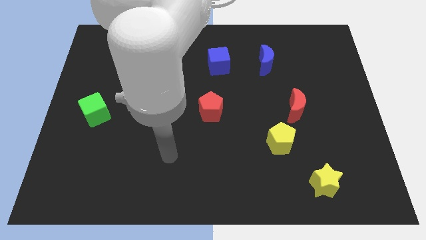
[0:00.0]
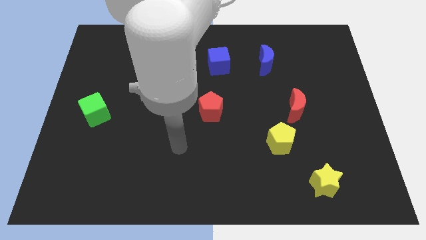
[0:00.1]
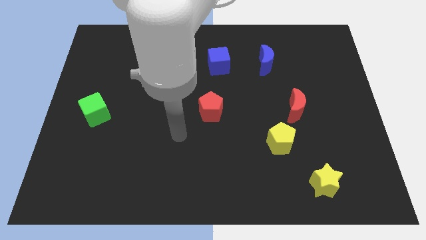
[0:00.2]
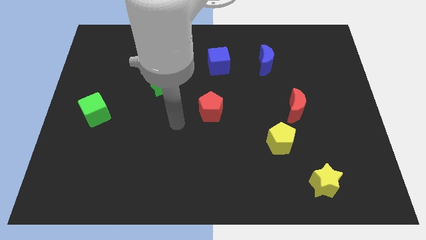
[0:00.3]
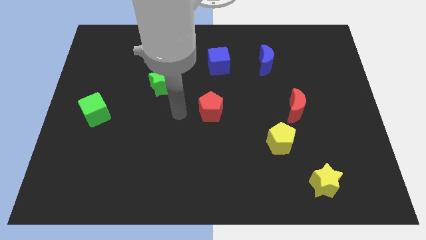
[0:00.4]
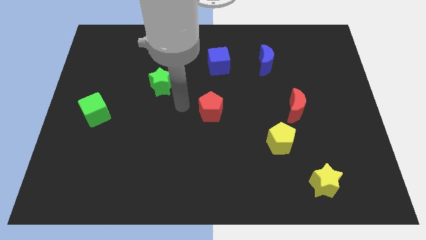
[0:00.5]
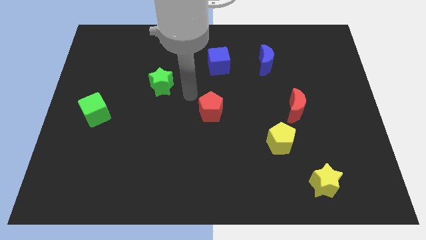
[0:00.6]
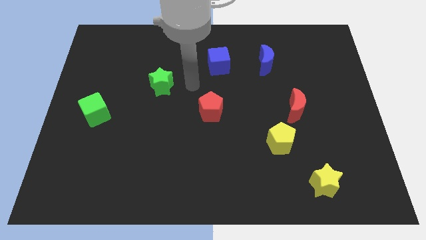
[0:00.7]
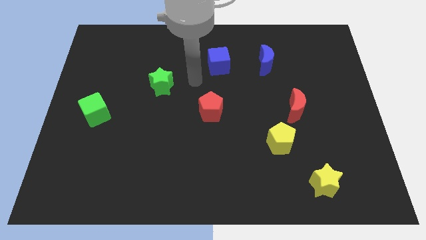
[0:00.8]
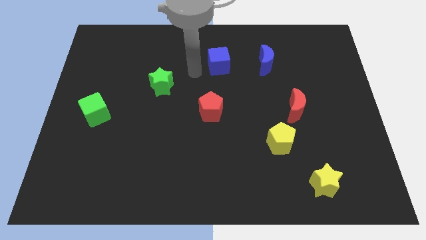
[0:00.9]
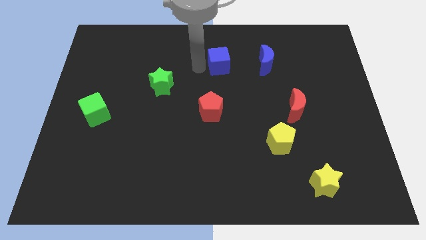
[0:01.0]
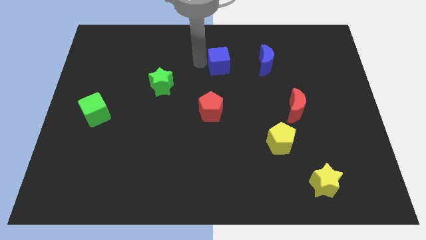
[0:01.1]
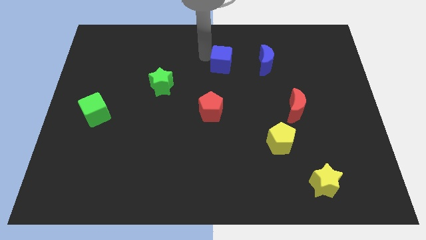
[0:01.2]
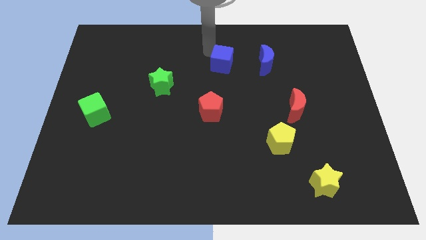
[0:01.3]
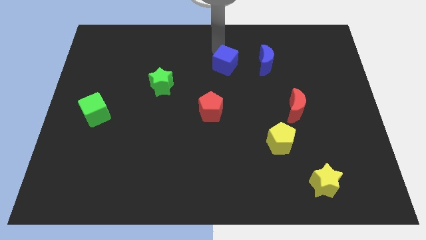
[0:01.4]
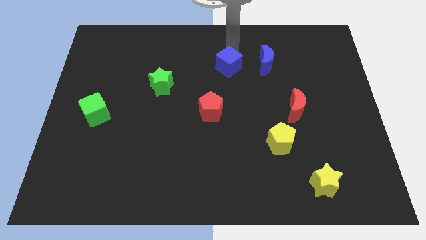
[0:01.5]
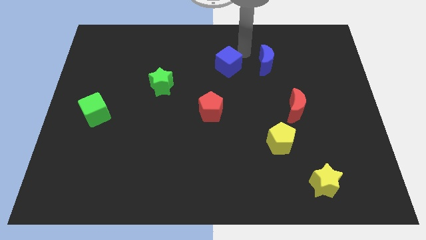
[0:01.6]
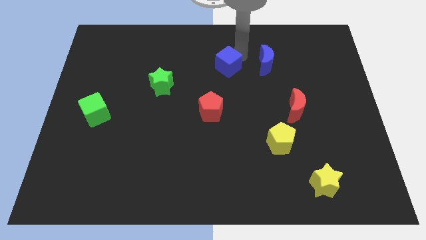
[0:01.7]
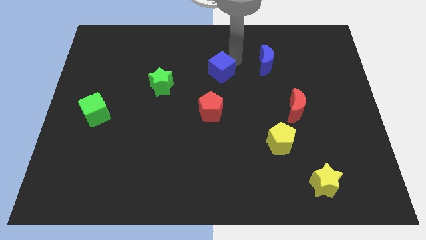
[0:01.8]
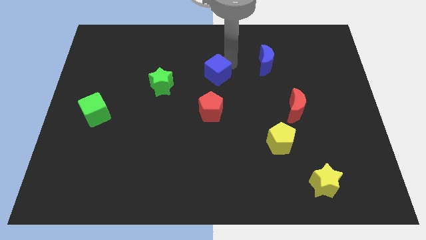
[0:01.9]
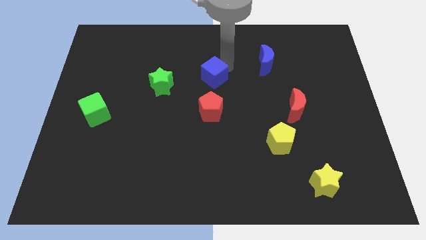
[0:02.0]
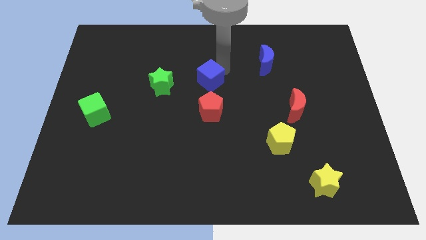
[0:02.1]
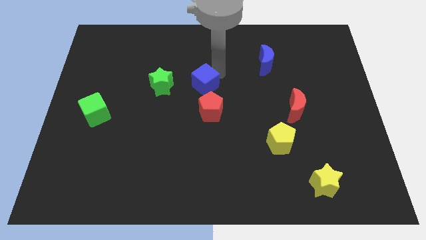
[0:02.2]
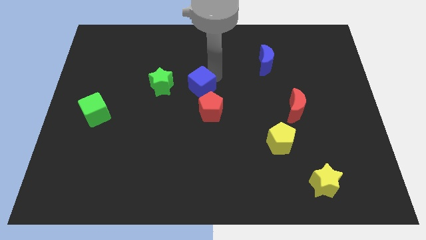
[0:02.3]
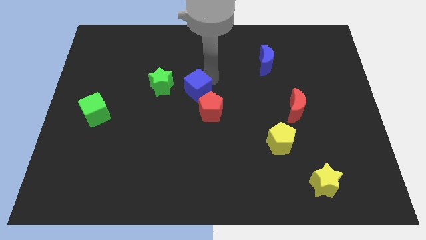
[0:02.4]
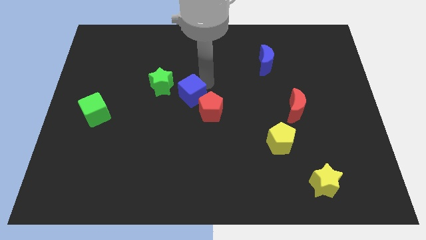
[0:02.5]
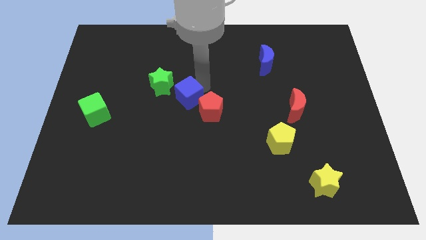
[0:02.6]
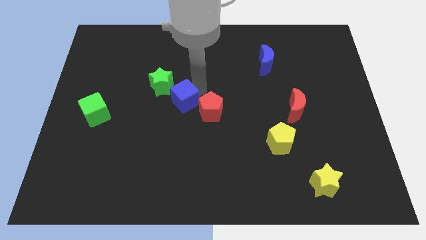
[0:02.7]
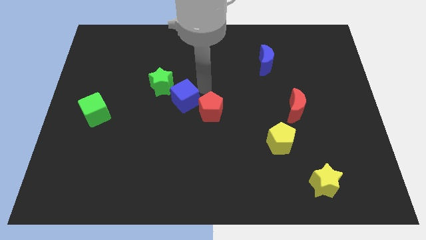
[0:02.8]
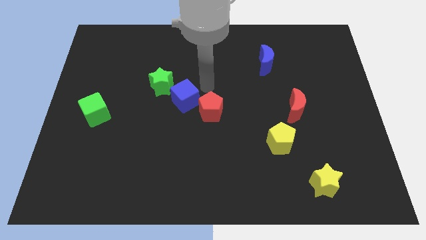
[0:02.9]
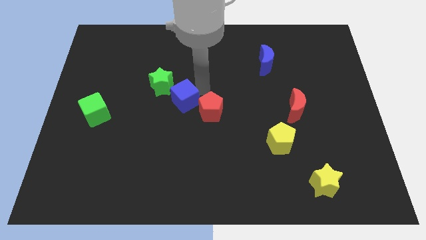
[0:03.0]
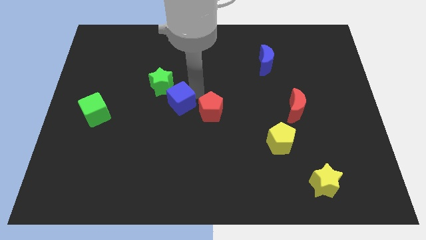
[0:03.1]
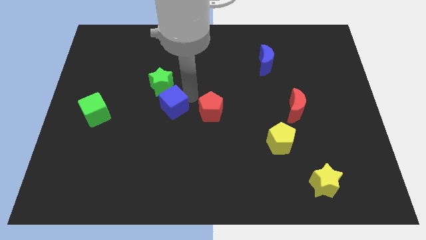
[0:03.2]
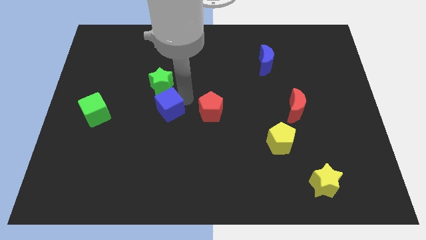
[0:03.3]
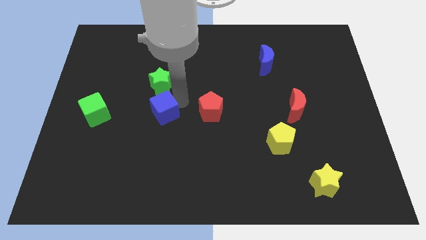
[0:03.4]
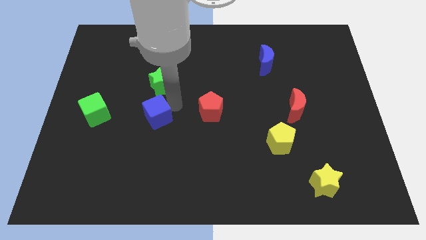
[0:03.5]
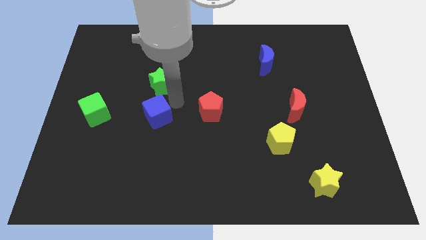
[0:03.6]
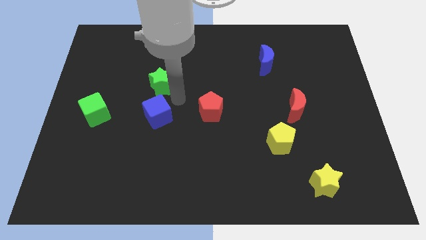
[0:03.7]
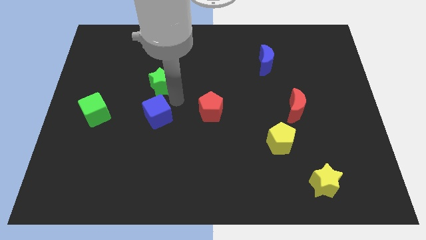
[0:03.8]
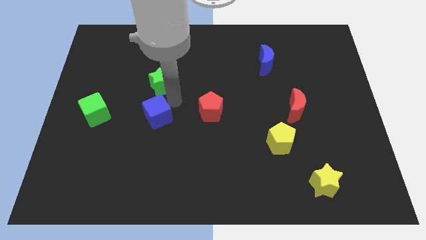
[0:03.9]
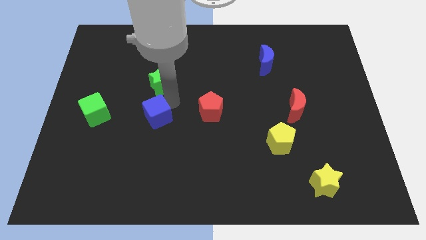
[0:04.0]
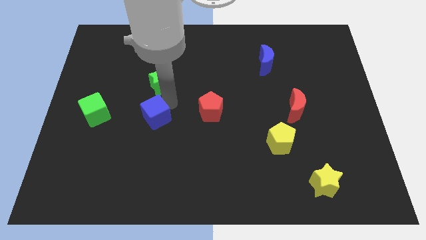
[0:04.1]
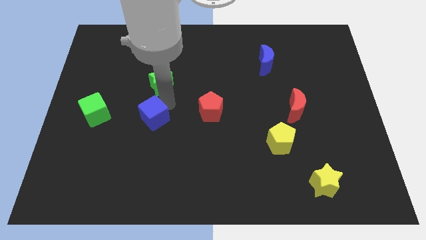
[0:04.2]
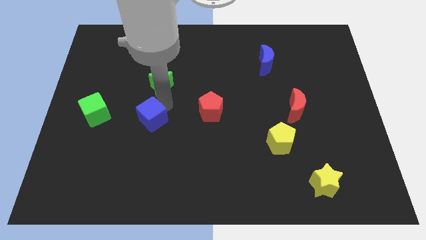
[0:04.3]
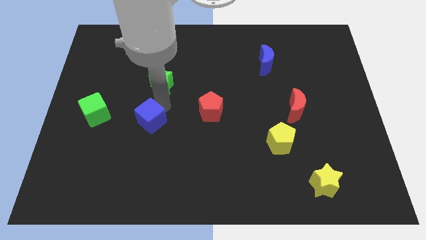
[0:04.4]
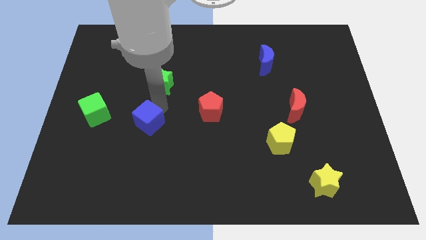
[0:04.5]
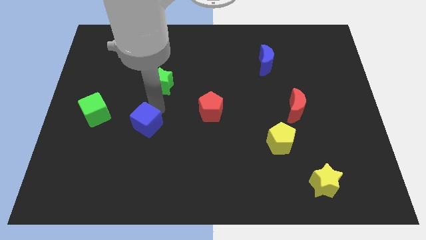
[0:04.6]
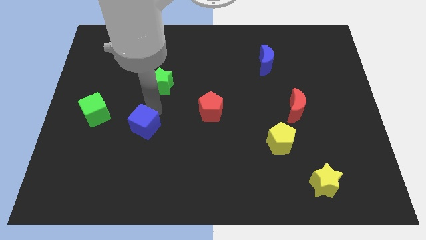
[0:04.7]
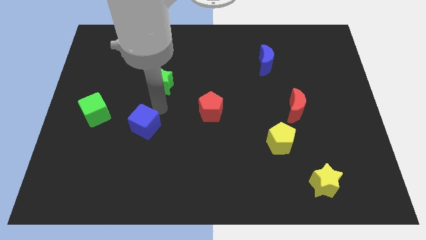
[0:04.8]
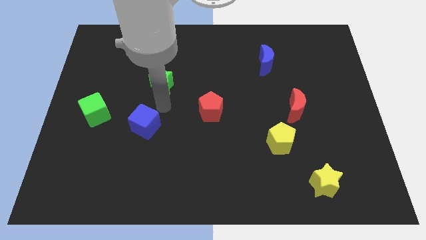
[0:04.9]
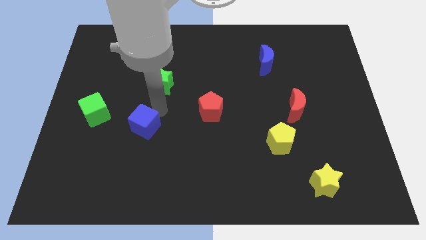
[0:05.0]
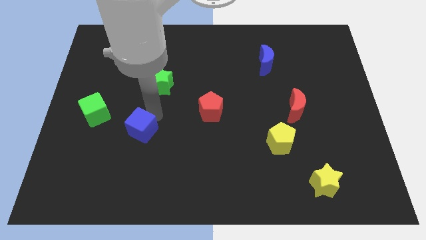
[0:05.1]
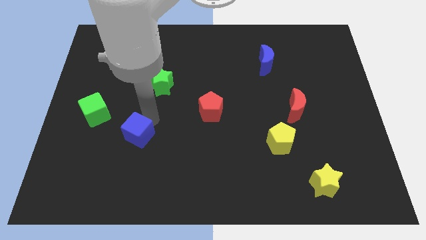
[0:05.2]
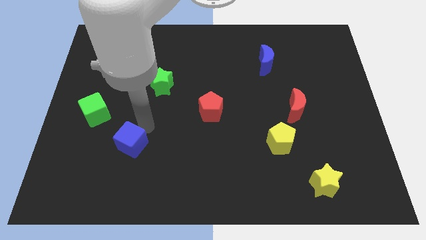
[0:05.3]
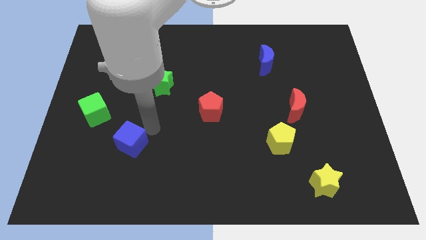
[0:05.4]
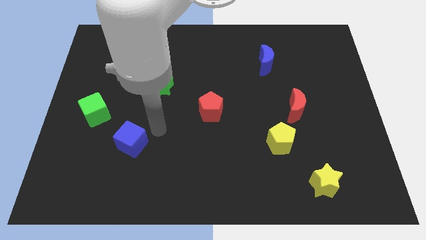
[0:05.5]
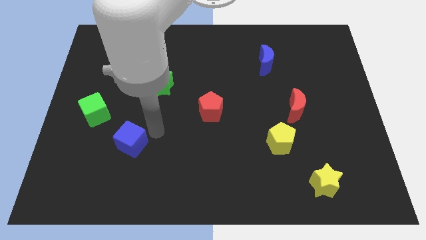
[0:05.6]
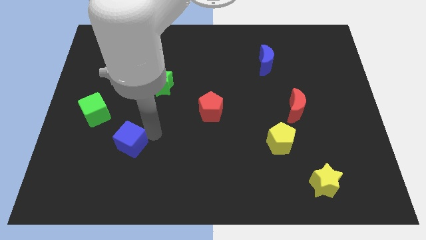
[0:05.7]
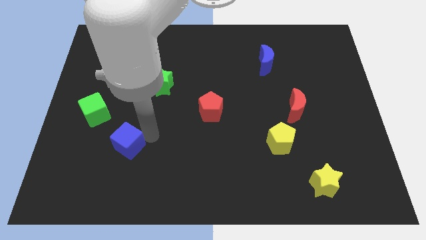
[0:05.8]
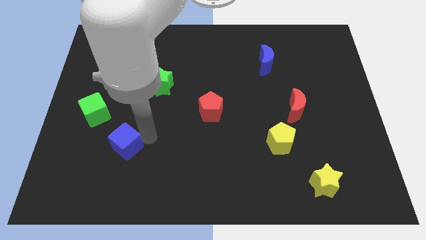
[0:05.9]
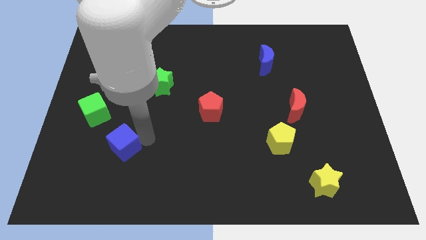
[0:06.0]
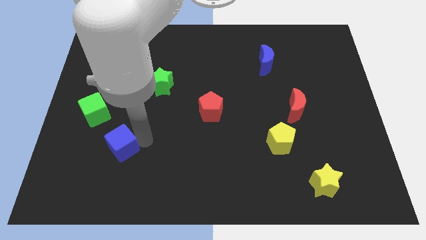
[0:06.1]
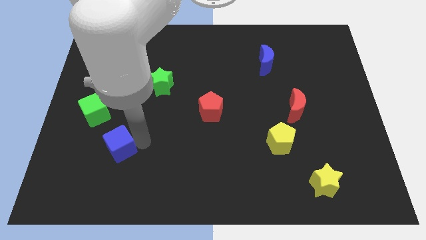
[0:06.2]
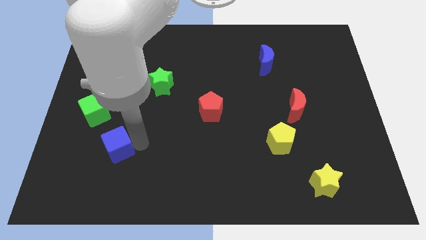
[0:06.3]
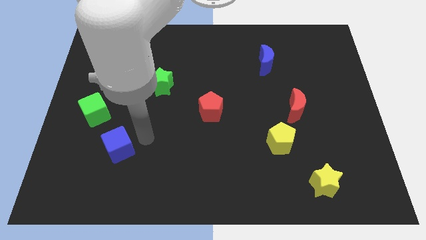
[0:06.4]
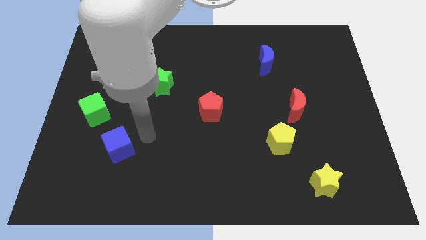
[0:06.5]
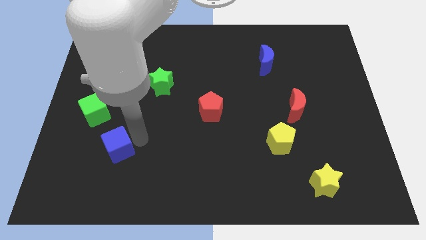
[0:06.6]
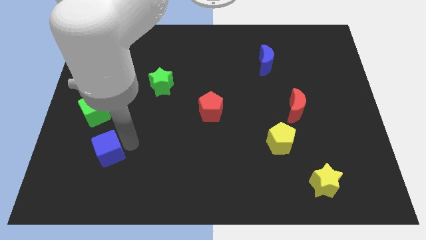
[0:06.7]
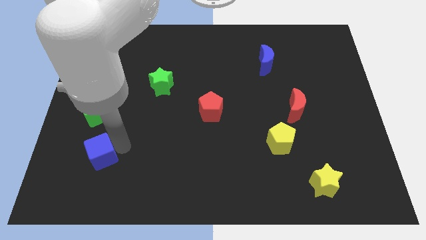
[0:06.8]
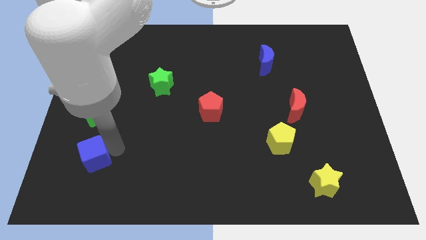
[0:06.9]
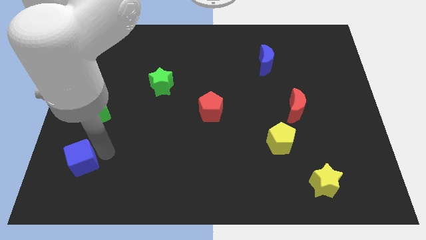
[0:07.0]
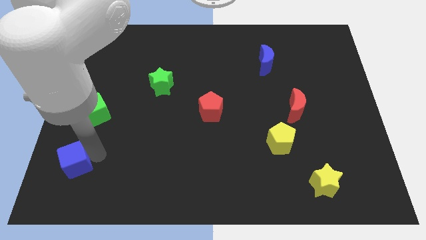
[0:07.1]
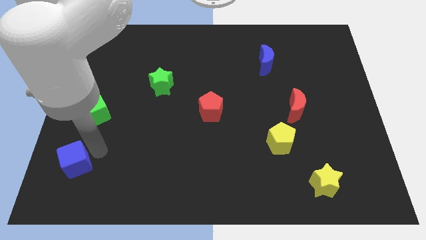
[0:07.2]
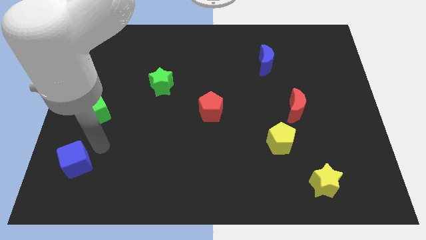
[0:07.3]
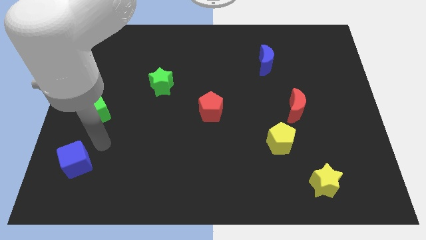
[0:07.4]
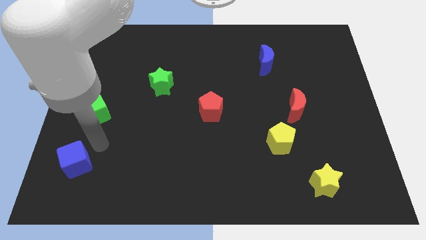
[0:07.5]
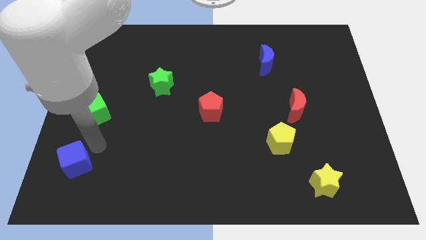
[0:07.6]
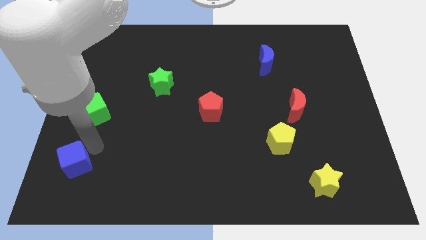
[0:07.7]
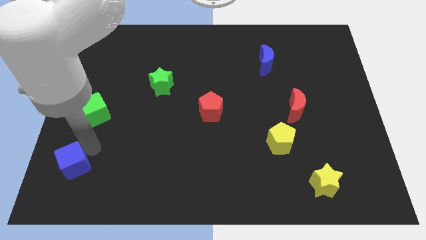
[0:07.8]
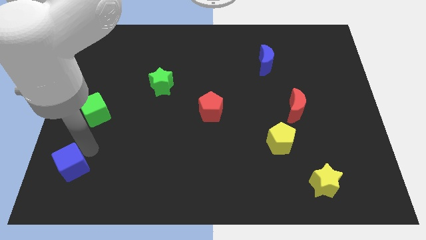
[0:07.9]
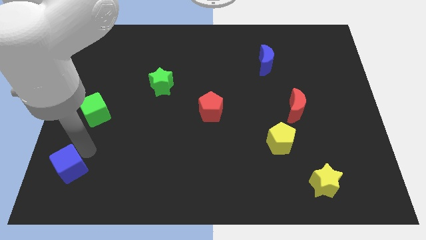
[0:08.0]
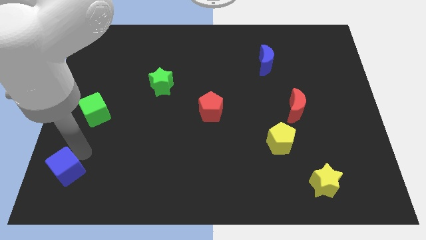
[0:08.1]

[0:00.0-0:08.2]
put the blue cube to the bottom left of the board
